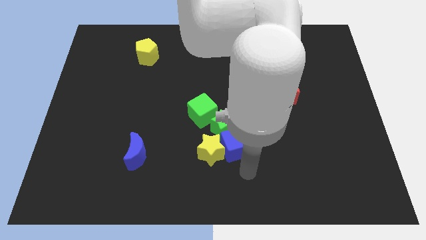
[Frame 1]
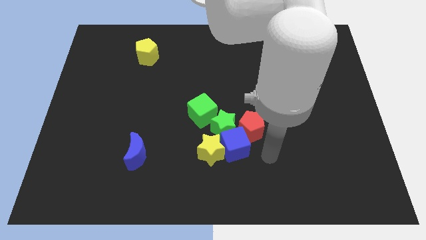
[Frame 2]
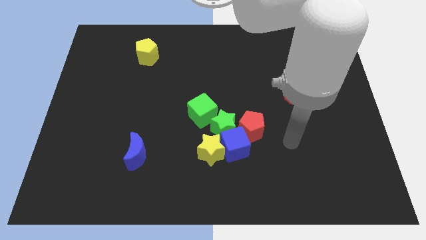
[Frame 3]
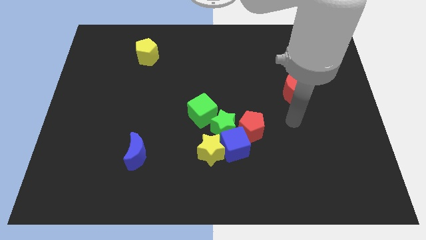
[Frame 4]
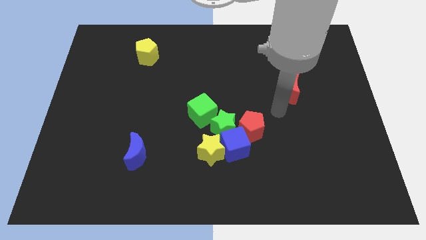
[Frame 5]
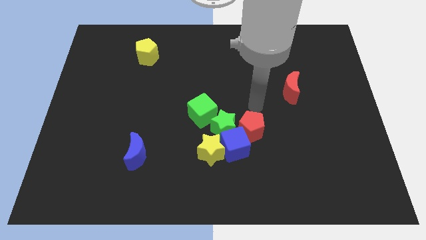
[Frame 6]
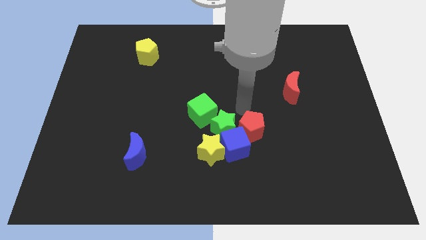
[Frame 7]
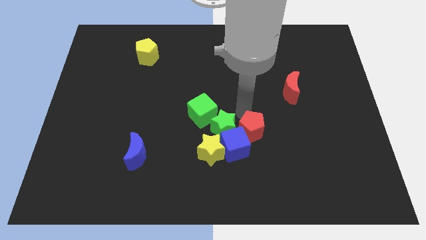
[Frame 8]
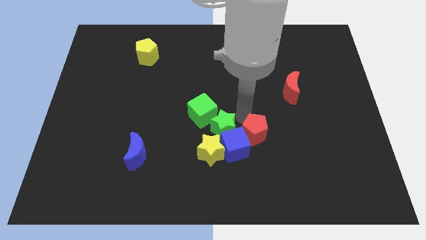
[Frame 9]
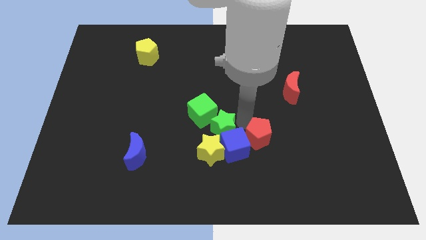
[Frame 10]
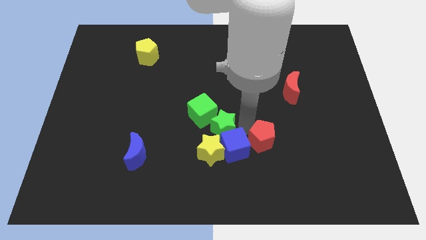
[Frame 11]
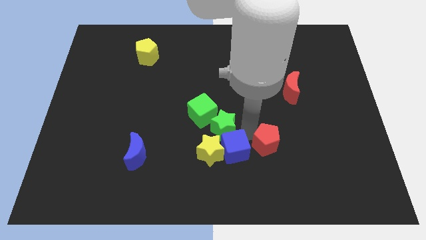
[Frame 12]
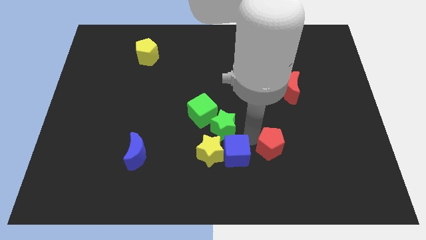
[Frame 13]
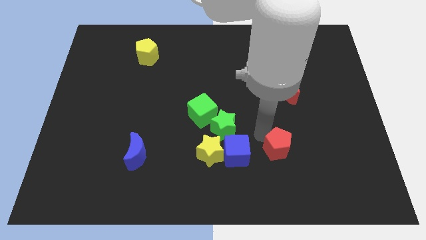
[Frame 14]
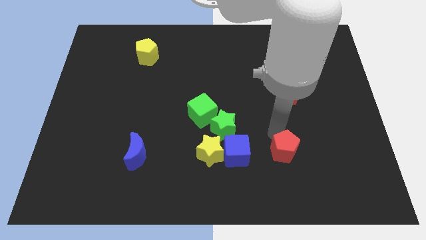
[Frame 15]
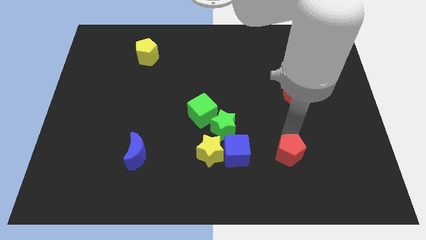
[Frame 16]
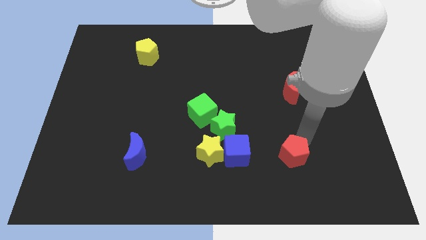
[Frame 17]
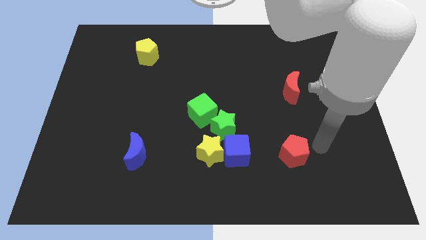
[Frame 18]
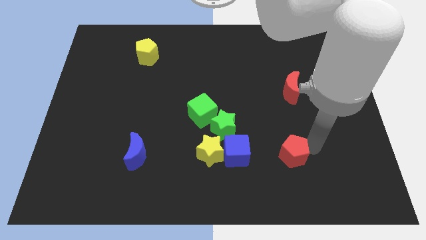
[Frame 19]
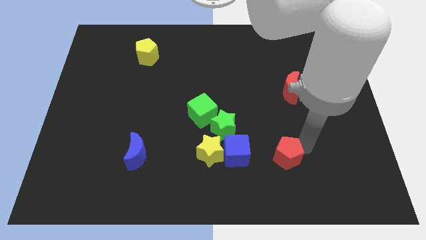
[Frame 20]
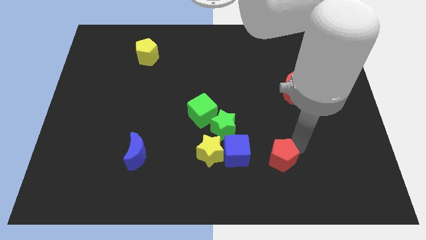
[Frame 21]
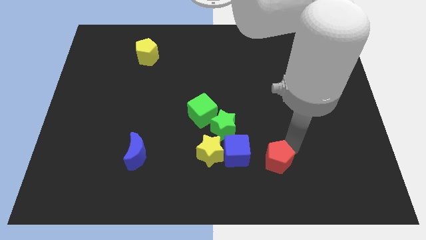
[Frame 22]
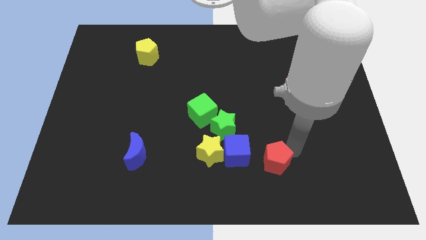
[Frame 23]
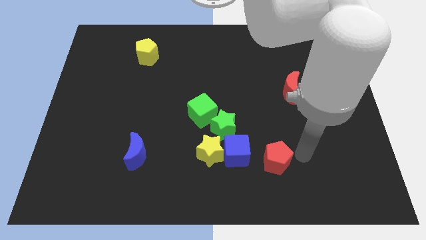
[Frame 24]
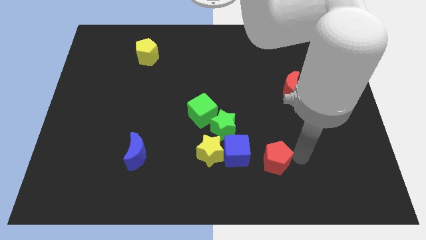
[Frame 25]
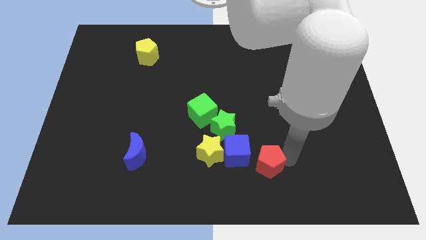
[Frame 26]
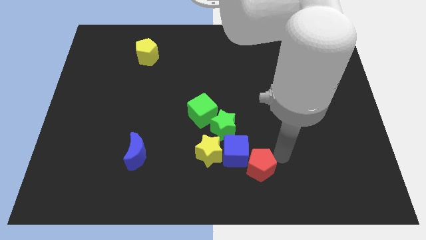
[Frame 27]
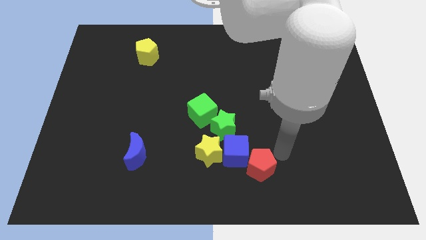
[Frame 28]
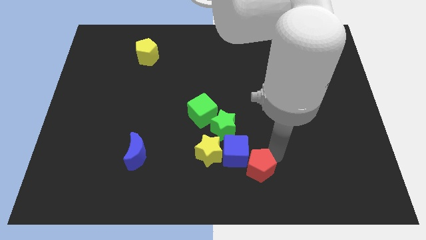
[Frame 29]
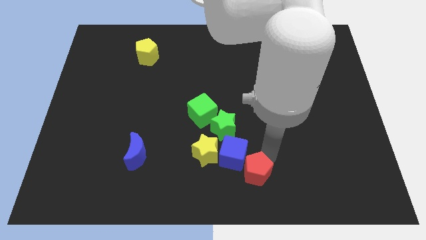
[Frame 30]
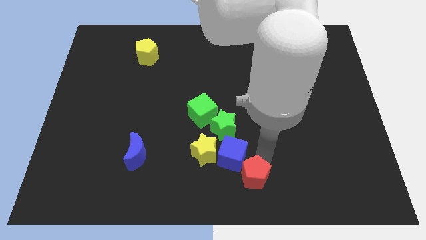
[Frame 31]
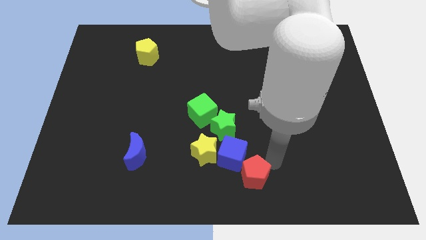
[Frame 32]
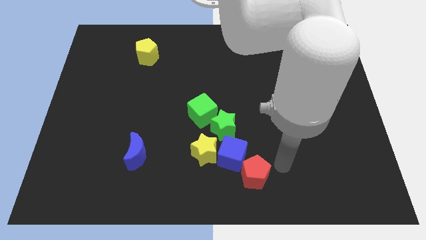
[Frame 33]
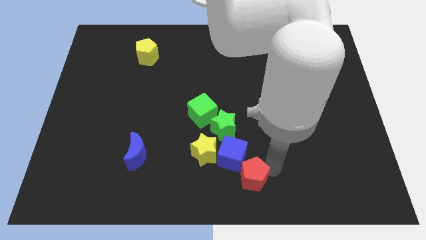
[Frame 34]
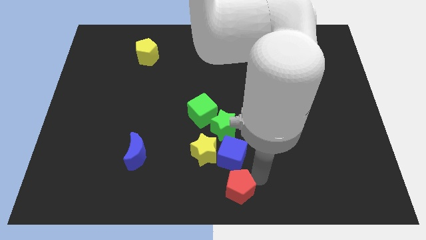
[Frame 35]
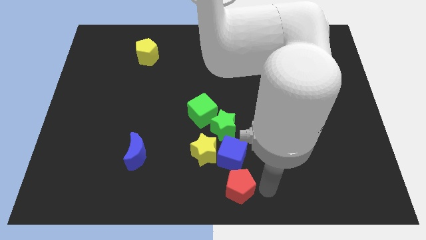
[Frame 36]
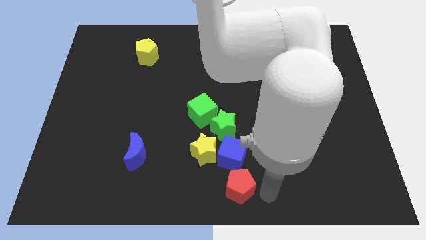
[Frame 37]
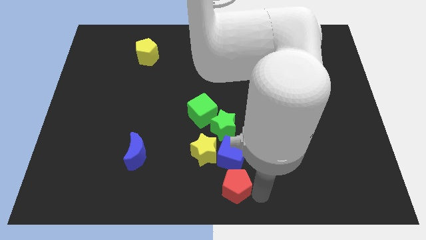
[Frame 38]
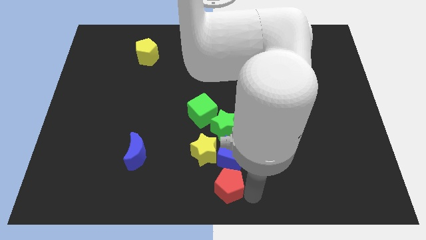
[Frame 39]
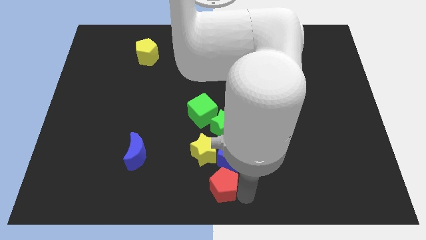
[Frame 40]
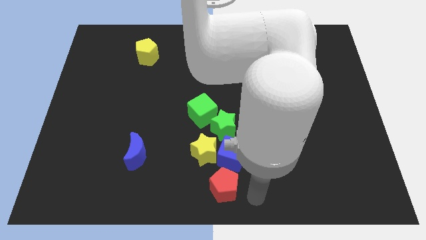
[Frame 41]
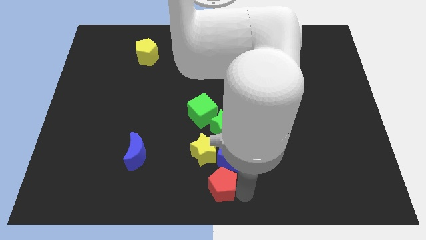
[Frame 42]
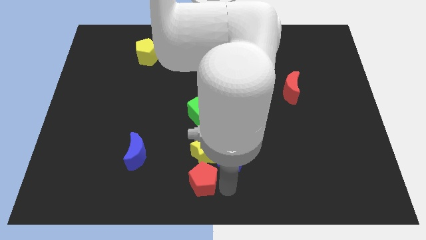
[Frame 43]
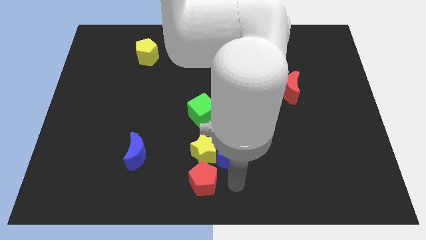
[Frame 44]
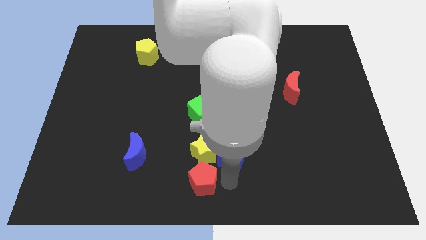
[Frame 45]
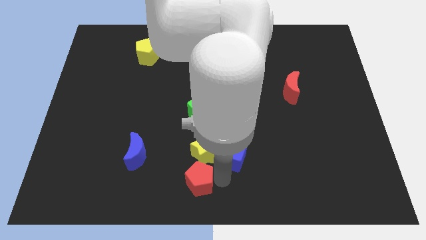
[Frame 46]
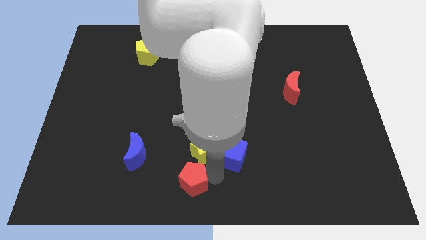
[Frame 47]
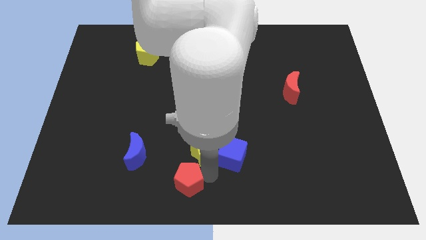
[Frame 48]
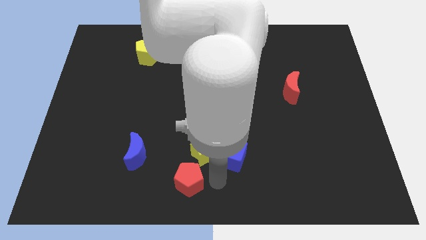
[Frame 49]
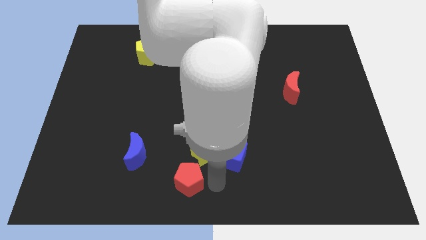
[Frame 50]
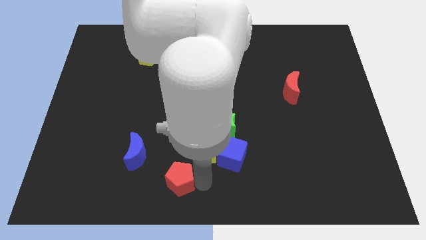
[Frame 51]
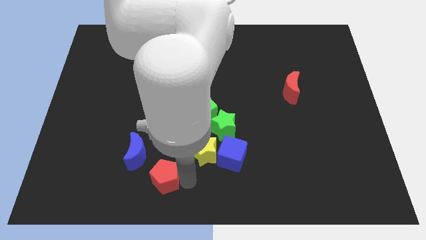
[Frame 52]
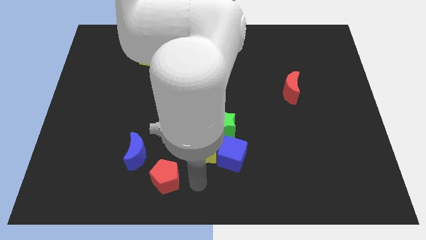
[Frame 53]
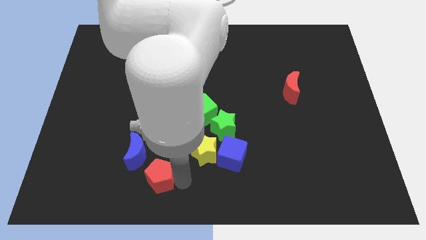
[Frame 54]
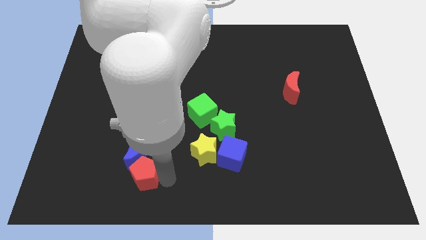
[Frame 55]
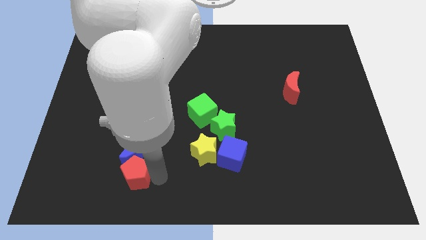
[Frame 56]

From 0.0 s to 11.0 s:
push the red pentagon diagonally down and to the left of the blue moon

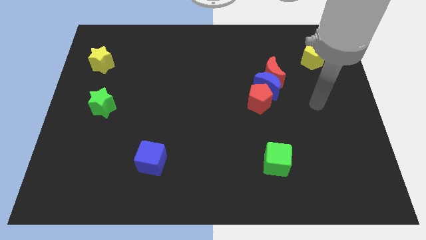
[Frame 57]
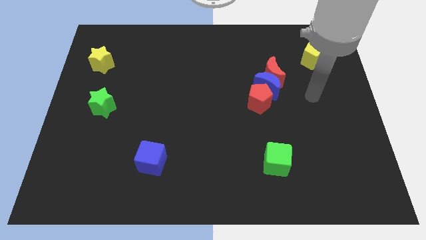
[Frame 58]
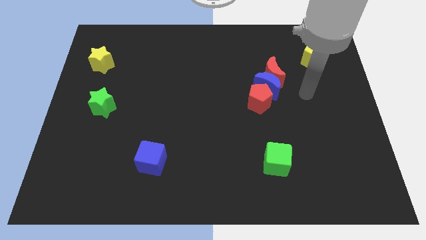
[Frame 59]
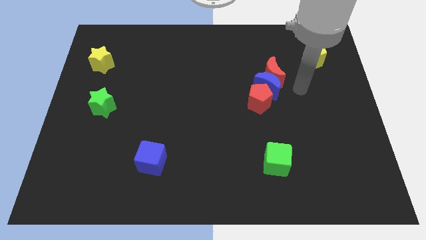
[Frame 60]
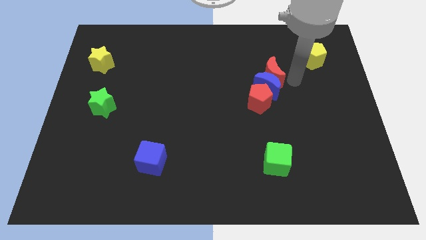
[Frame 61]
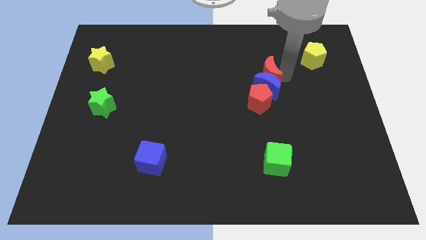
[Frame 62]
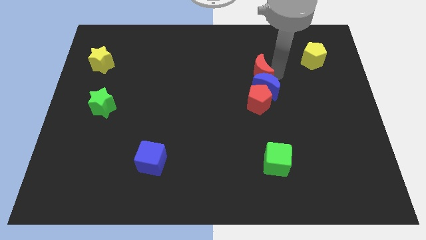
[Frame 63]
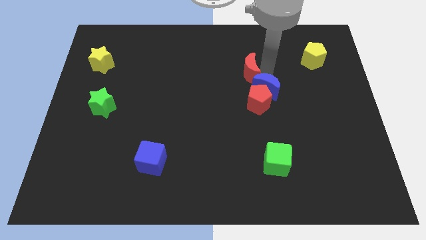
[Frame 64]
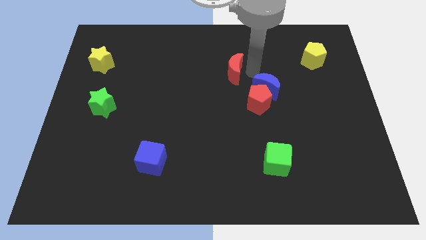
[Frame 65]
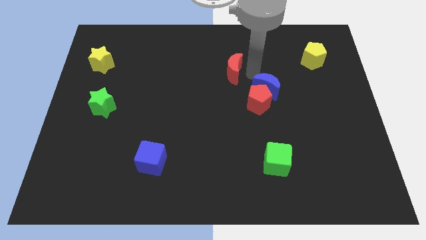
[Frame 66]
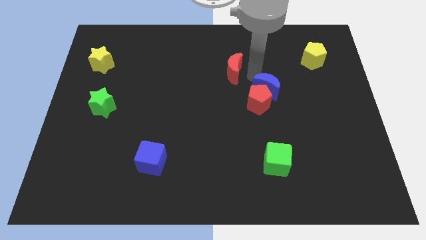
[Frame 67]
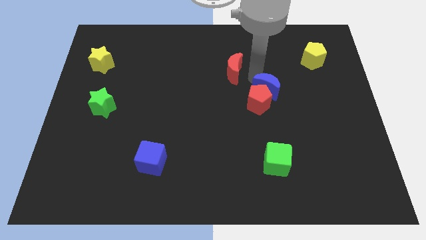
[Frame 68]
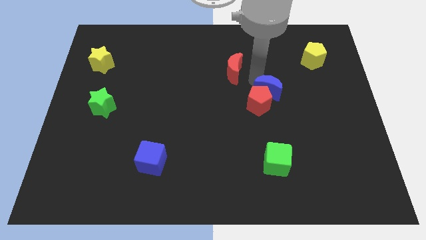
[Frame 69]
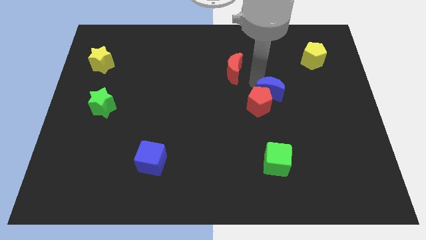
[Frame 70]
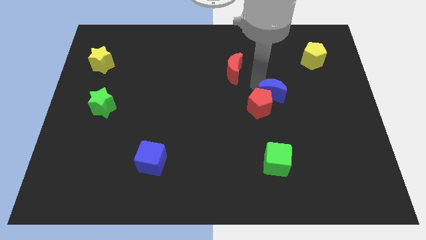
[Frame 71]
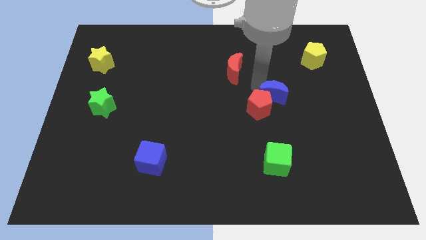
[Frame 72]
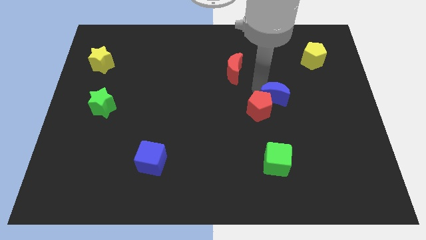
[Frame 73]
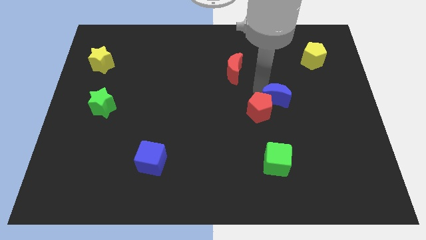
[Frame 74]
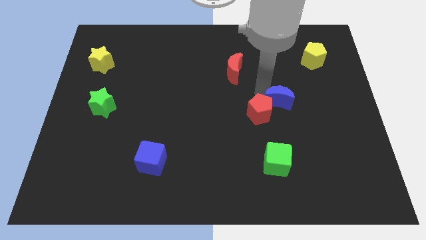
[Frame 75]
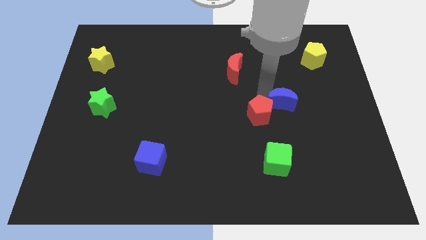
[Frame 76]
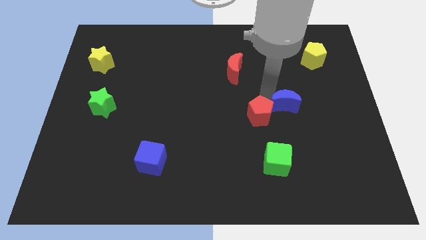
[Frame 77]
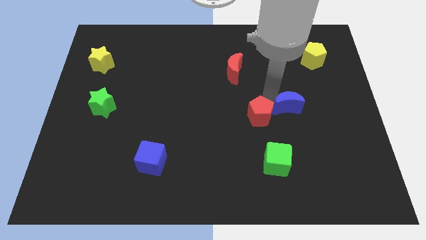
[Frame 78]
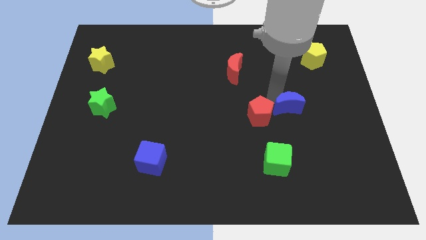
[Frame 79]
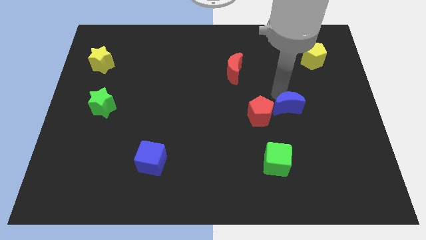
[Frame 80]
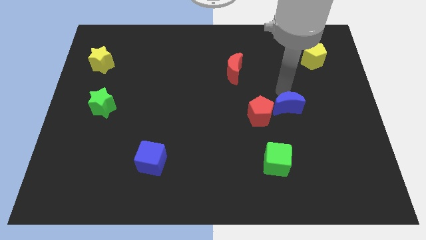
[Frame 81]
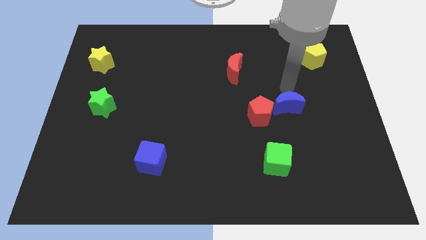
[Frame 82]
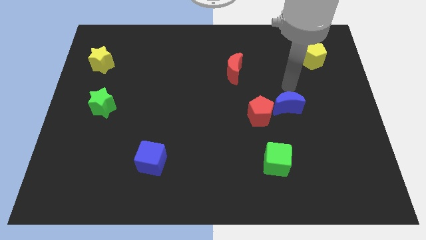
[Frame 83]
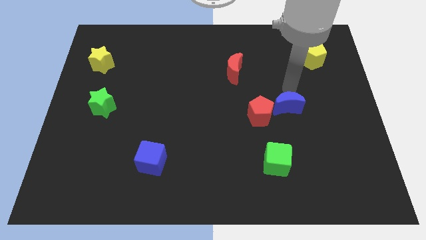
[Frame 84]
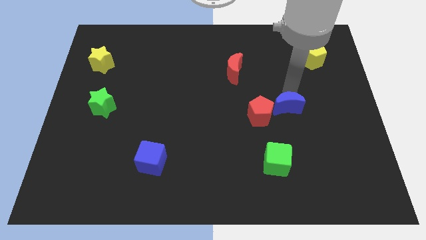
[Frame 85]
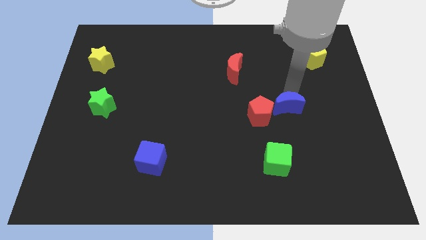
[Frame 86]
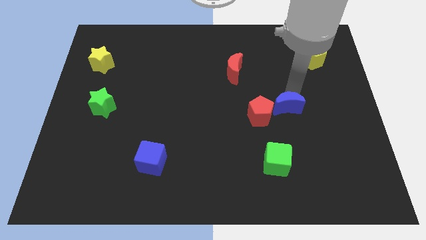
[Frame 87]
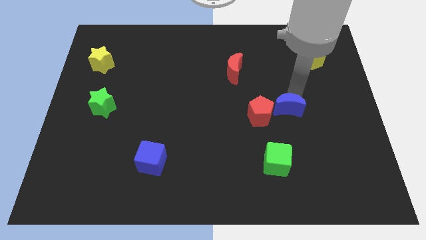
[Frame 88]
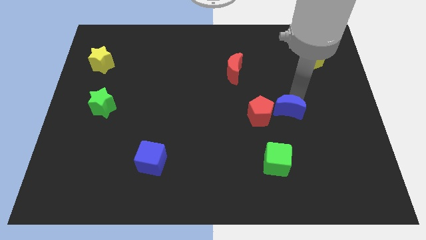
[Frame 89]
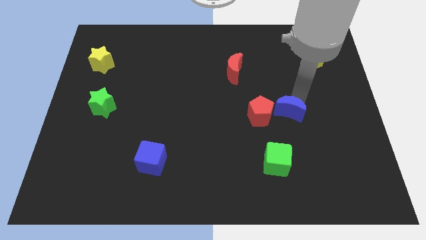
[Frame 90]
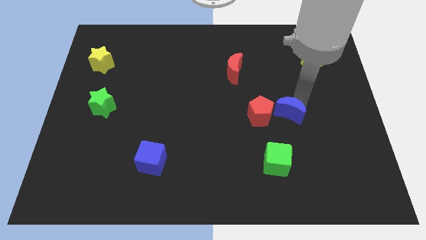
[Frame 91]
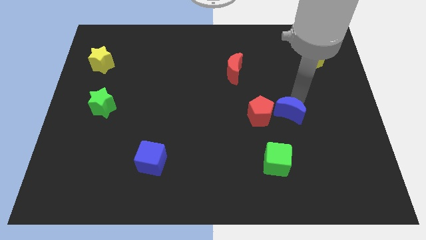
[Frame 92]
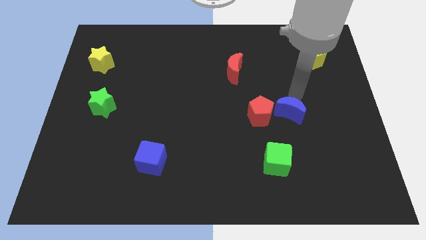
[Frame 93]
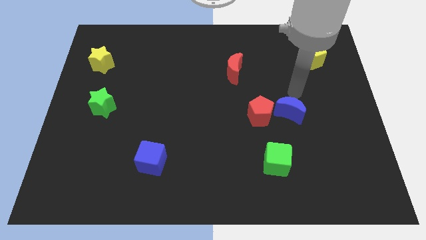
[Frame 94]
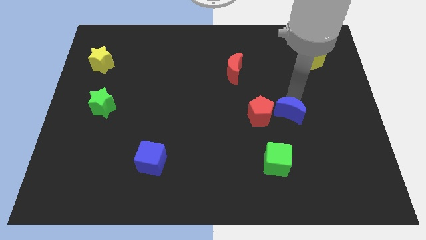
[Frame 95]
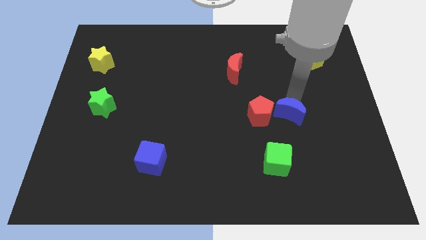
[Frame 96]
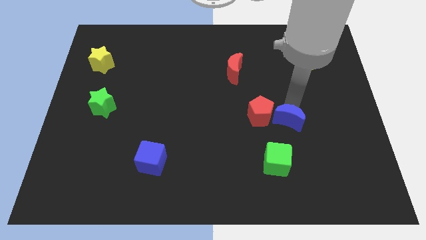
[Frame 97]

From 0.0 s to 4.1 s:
put the blue moon to the bottom right side of the red pentagon
